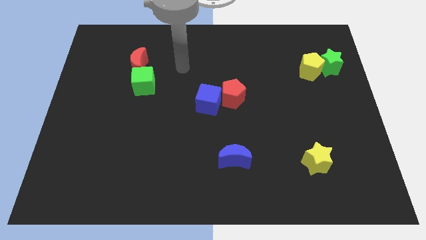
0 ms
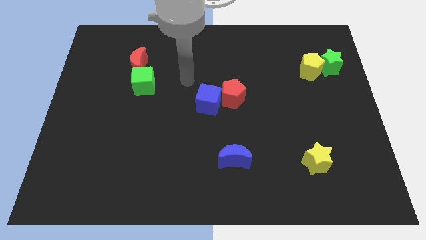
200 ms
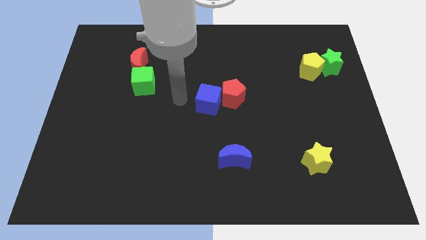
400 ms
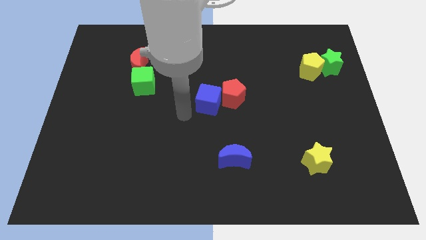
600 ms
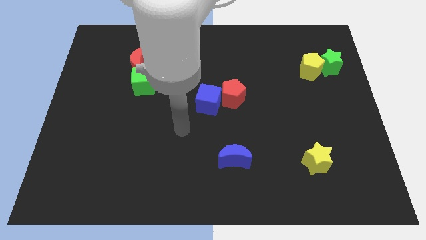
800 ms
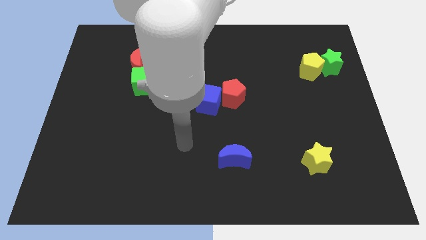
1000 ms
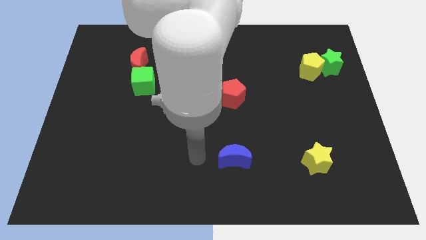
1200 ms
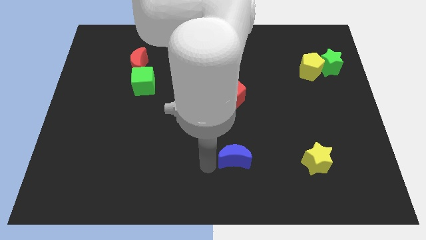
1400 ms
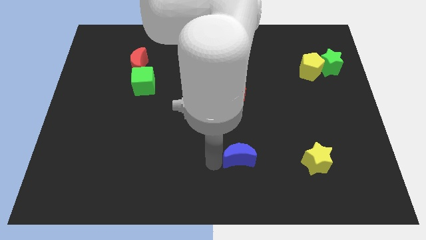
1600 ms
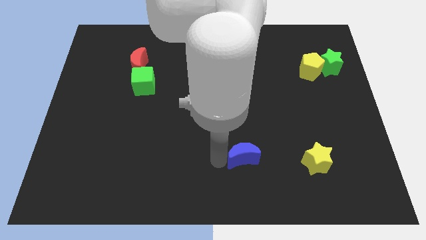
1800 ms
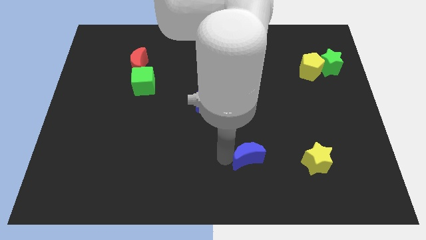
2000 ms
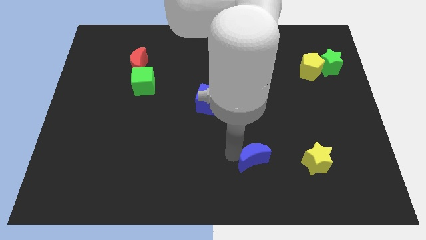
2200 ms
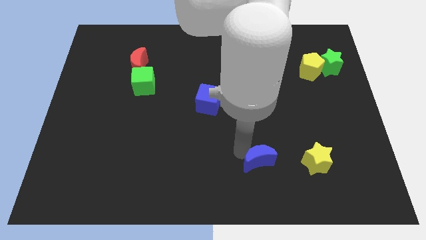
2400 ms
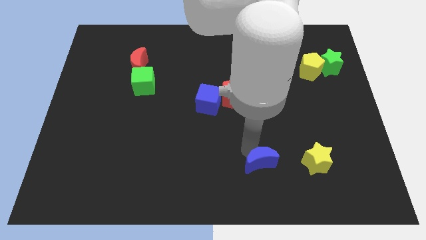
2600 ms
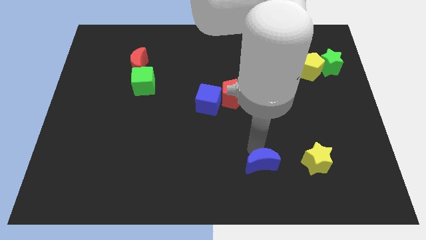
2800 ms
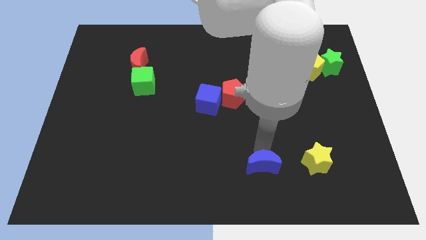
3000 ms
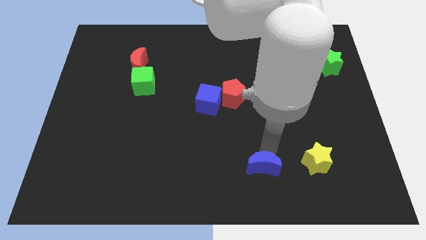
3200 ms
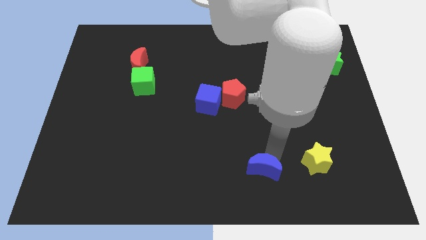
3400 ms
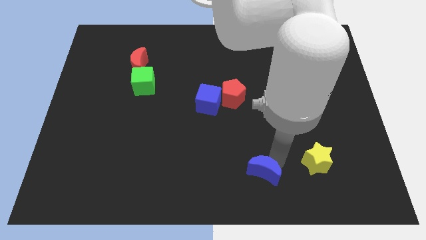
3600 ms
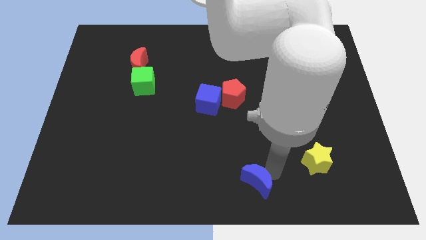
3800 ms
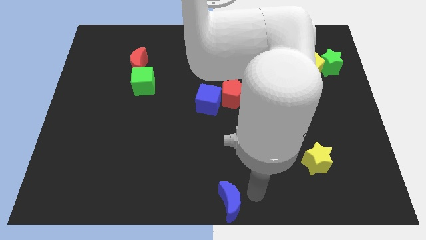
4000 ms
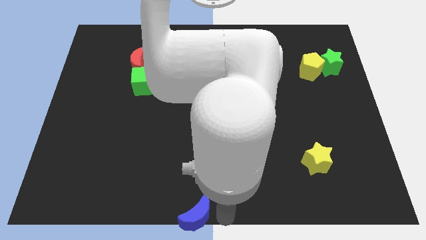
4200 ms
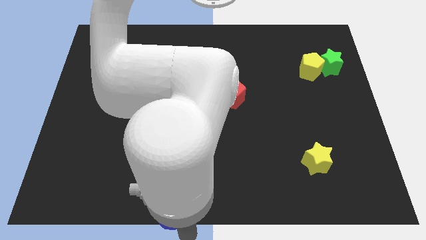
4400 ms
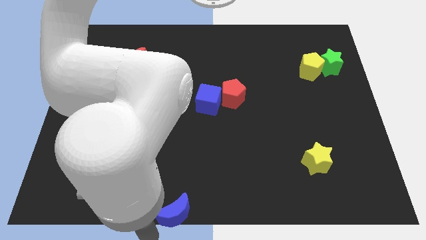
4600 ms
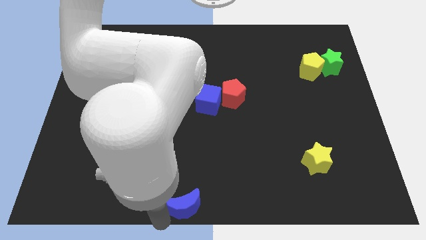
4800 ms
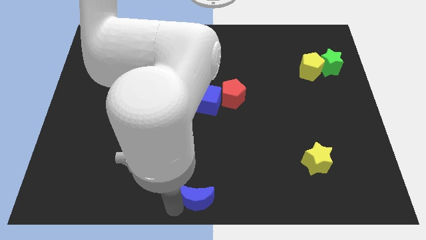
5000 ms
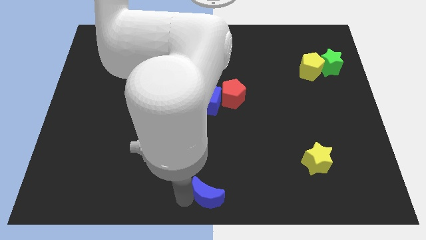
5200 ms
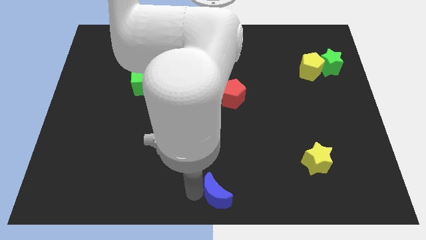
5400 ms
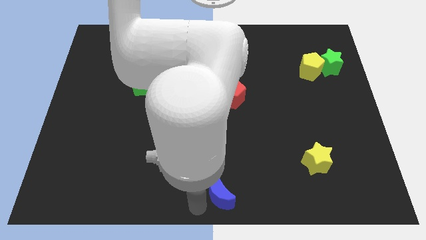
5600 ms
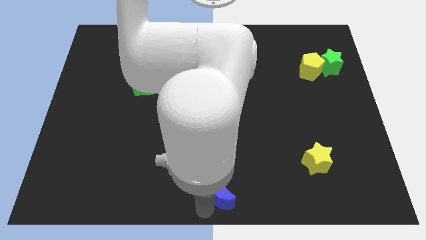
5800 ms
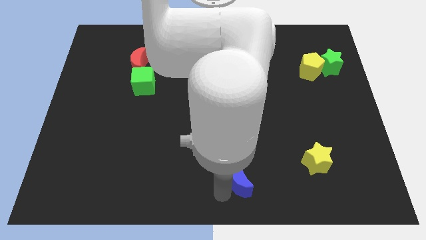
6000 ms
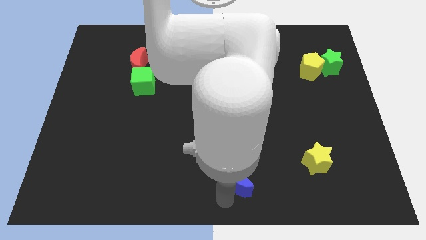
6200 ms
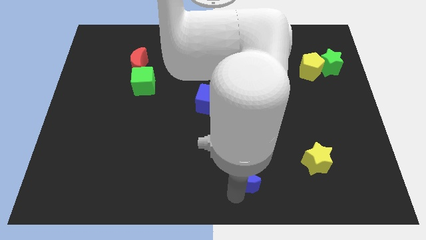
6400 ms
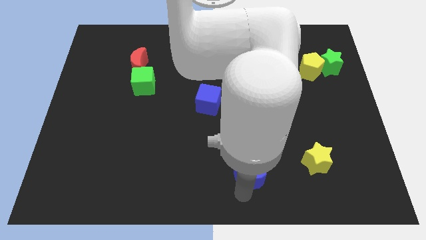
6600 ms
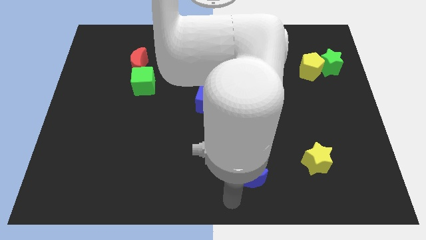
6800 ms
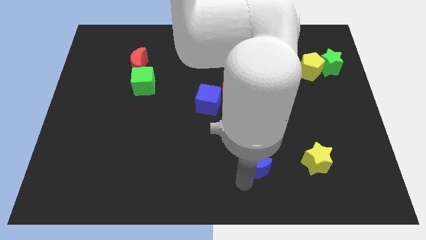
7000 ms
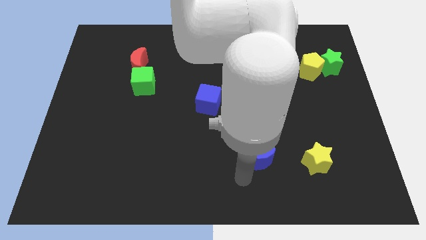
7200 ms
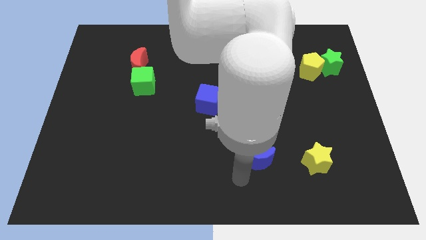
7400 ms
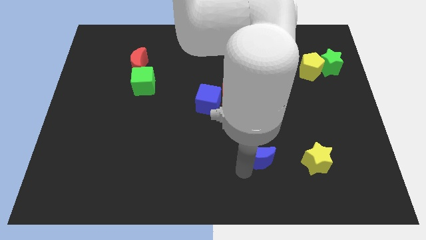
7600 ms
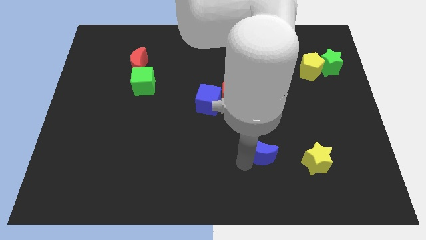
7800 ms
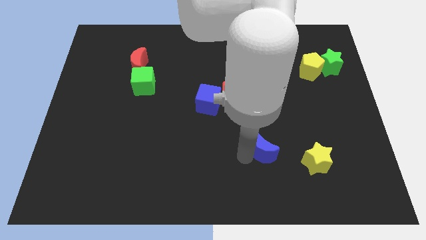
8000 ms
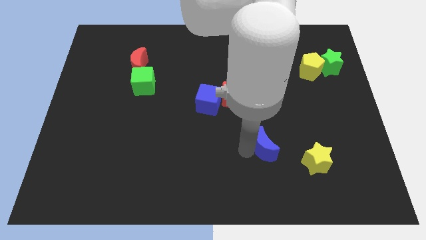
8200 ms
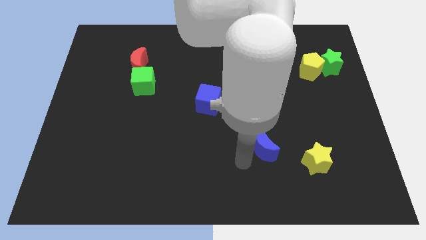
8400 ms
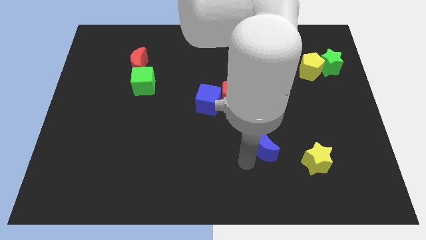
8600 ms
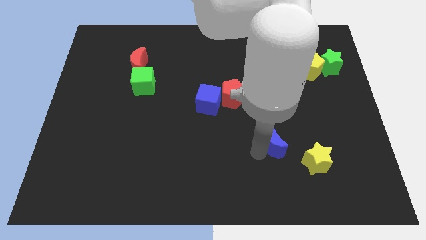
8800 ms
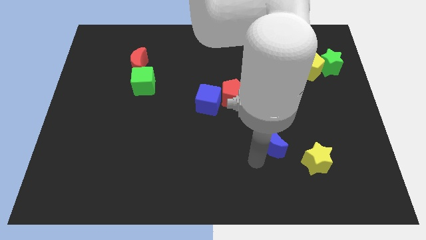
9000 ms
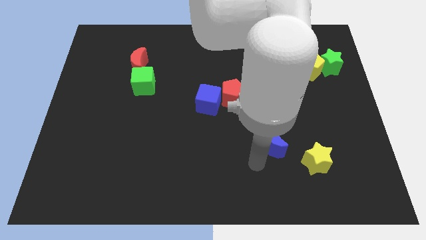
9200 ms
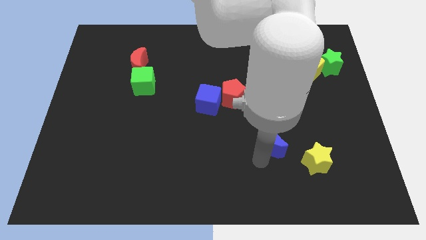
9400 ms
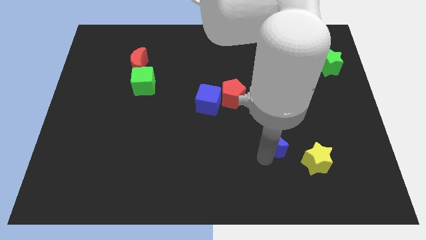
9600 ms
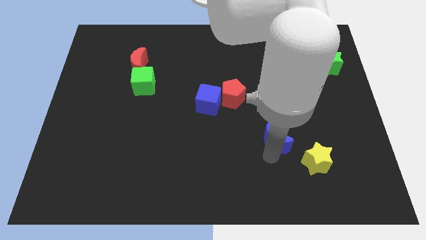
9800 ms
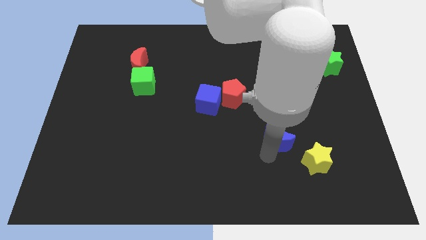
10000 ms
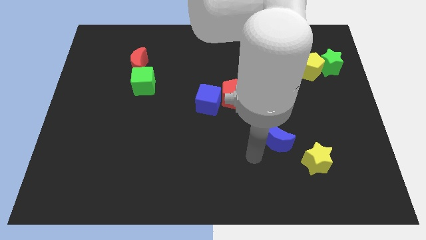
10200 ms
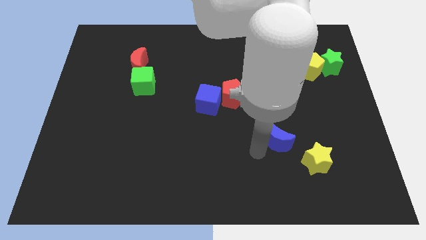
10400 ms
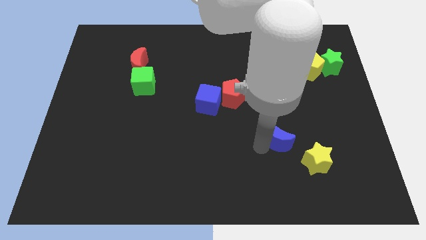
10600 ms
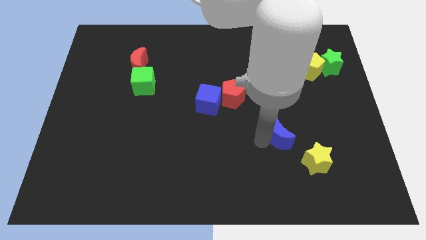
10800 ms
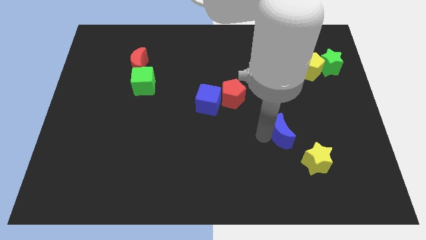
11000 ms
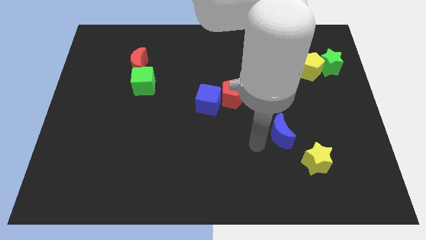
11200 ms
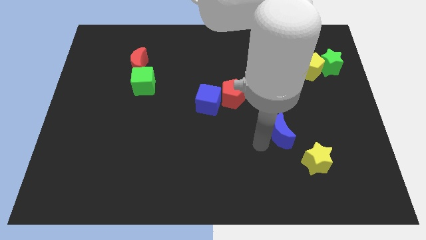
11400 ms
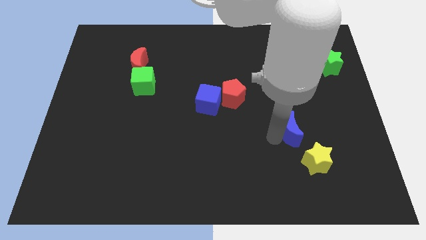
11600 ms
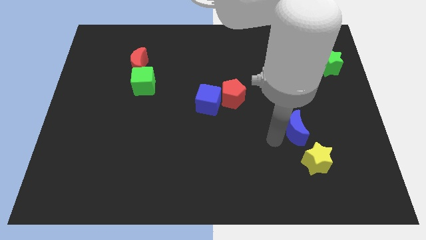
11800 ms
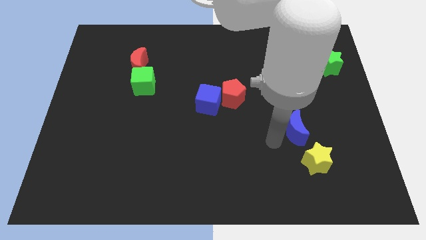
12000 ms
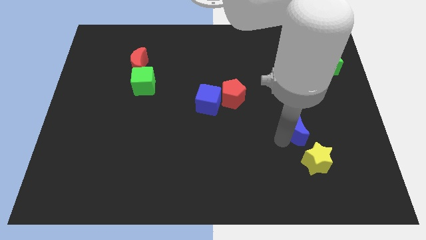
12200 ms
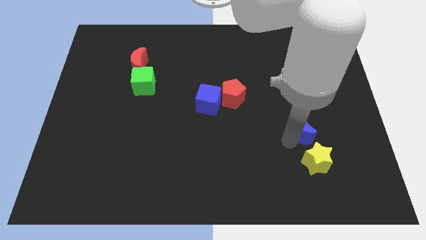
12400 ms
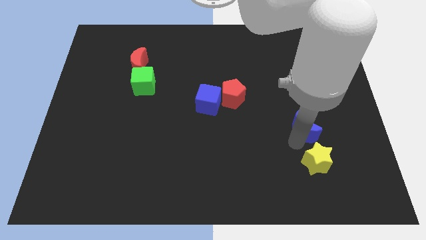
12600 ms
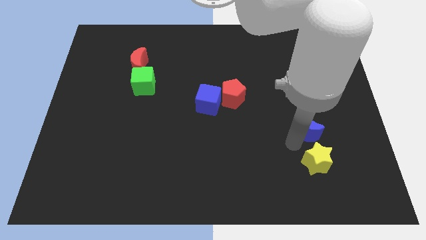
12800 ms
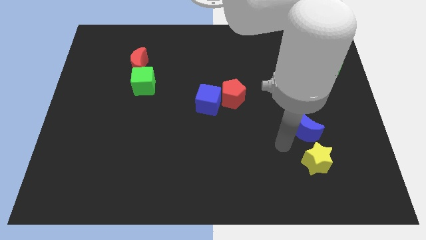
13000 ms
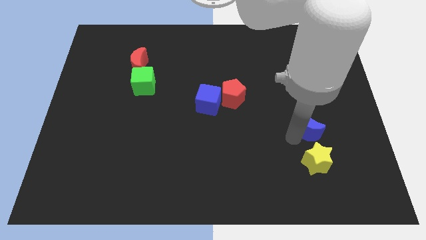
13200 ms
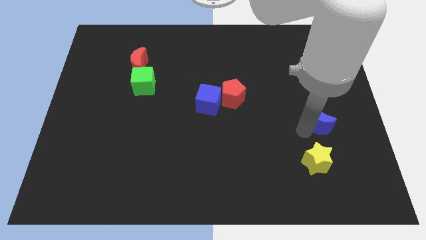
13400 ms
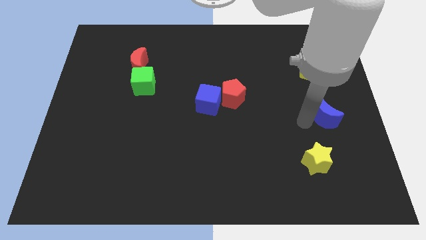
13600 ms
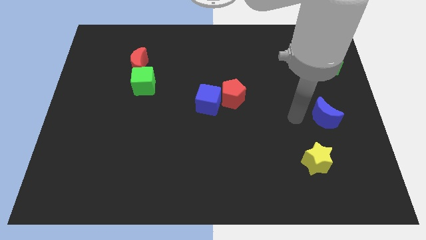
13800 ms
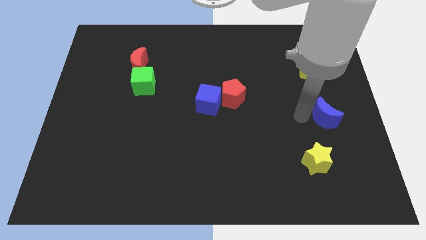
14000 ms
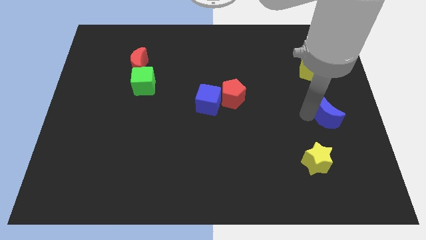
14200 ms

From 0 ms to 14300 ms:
put the blue moon to the center right
